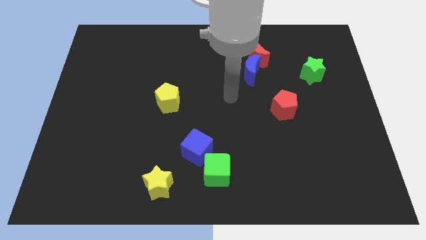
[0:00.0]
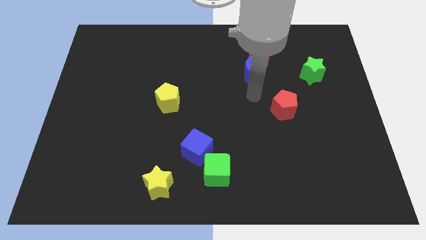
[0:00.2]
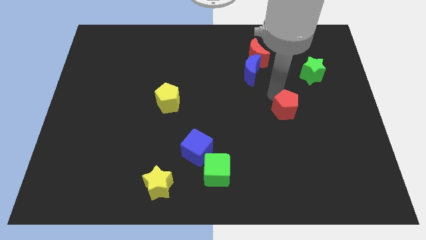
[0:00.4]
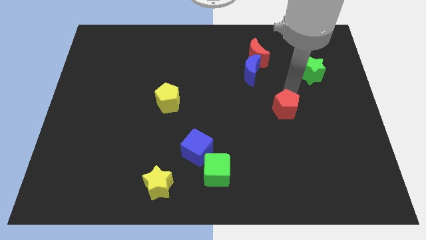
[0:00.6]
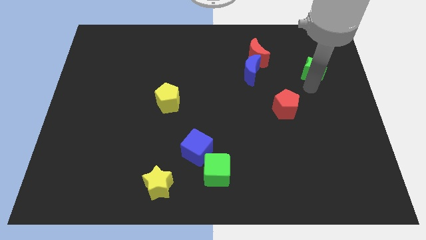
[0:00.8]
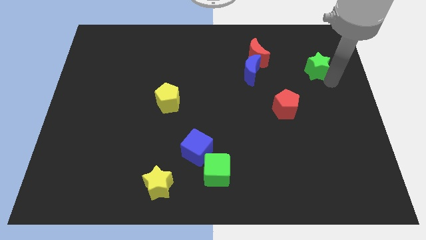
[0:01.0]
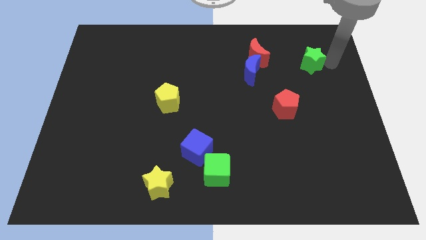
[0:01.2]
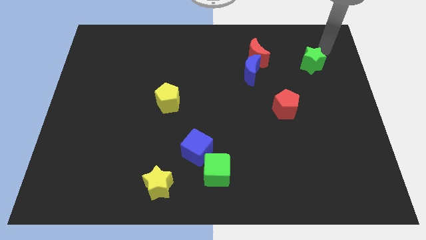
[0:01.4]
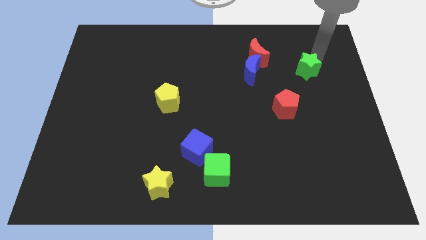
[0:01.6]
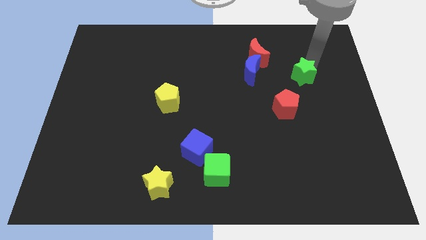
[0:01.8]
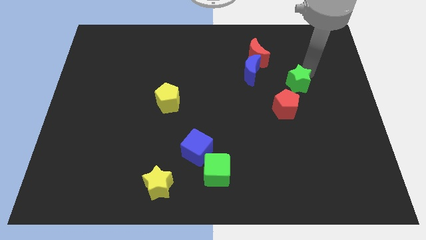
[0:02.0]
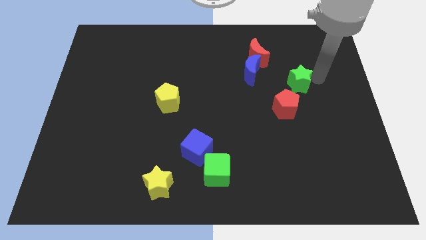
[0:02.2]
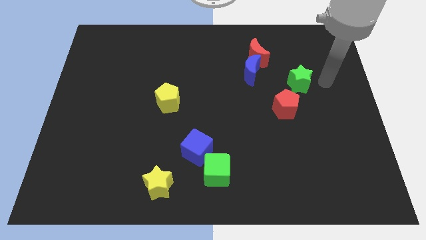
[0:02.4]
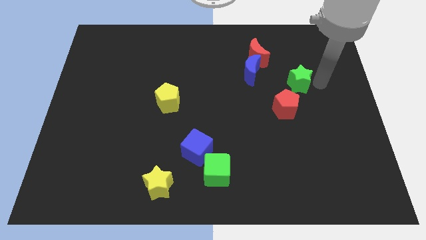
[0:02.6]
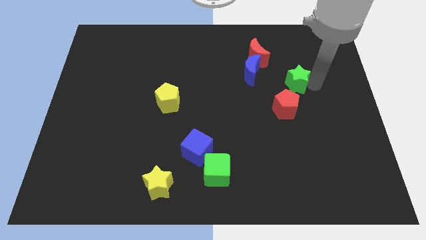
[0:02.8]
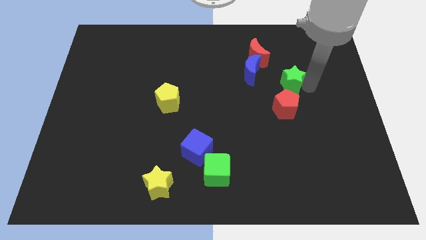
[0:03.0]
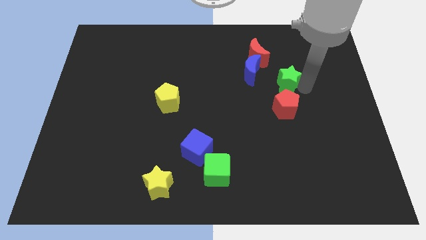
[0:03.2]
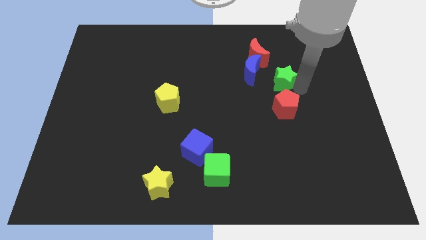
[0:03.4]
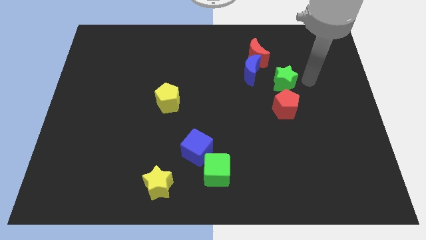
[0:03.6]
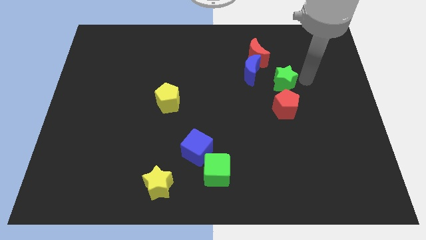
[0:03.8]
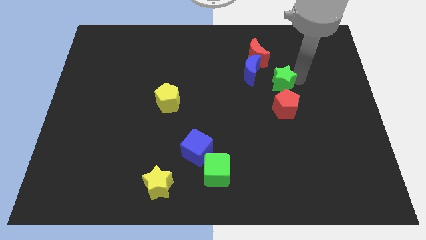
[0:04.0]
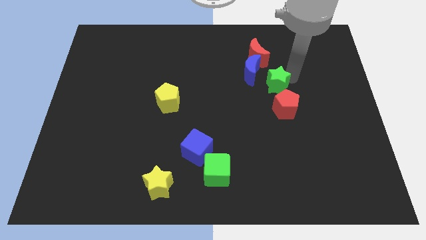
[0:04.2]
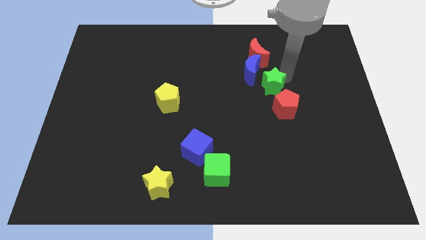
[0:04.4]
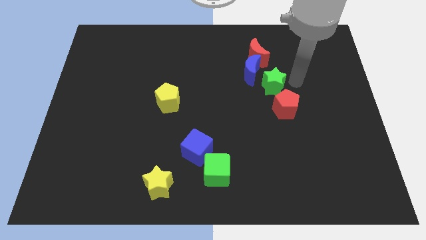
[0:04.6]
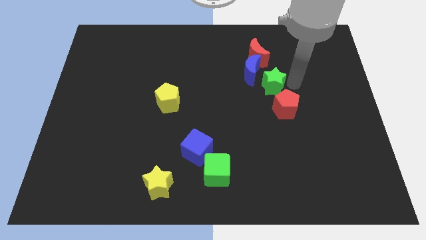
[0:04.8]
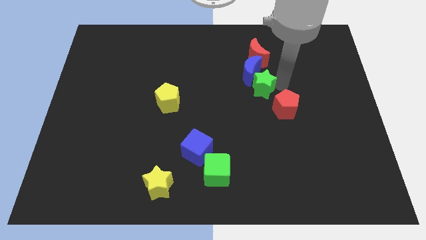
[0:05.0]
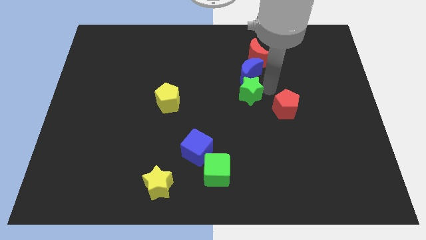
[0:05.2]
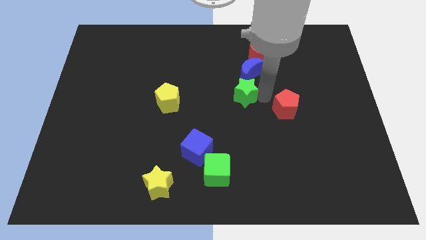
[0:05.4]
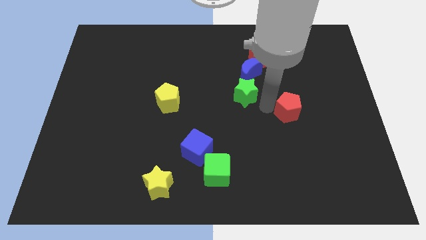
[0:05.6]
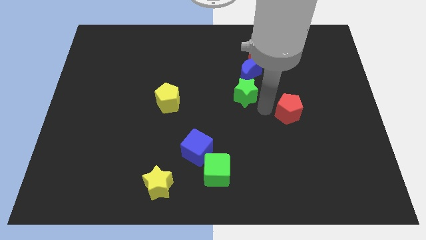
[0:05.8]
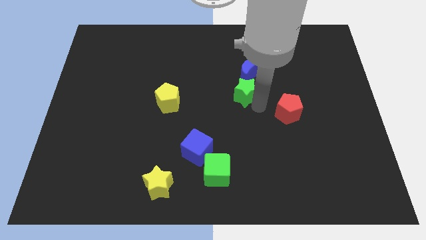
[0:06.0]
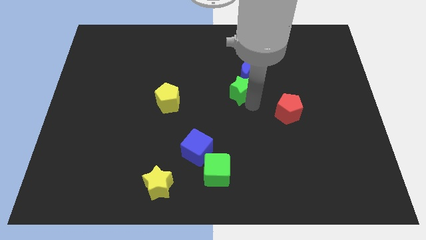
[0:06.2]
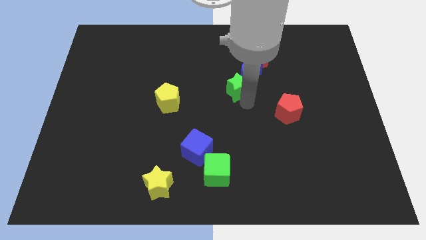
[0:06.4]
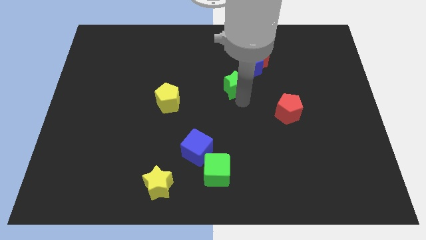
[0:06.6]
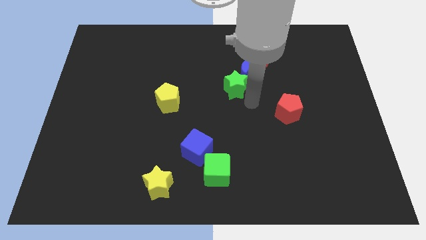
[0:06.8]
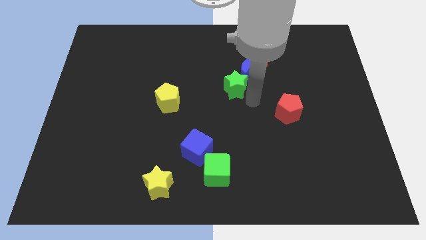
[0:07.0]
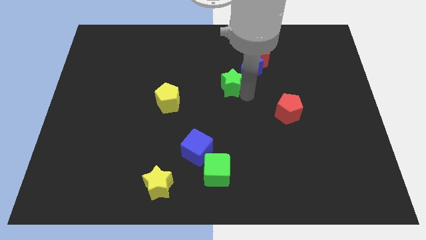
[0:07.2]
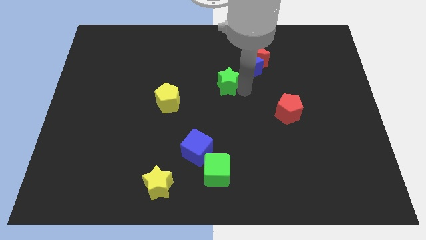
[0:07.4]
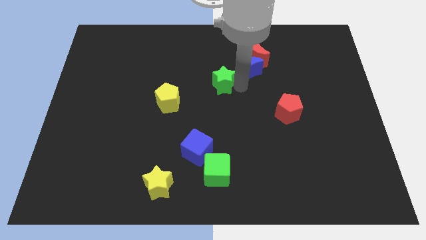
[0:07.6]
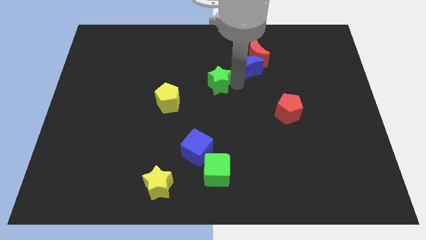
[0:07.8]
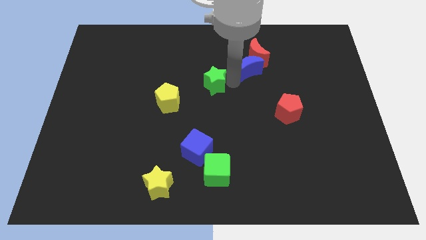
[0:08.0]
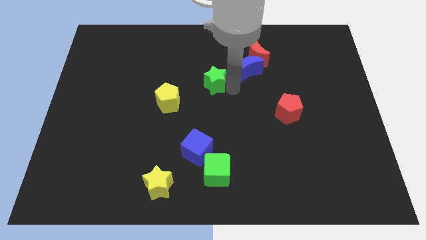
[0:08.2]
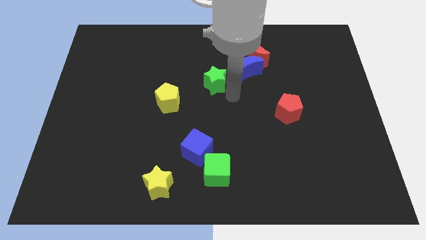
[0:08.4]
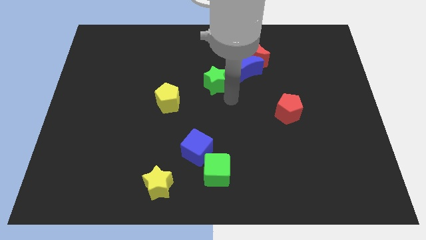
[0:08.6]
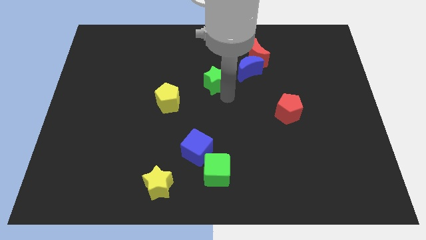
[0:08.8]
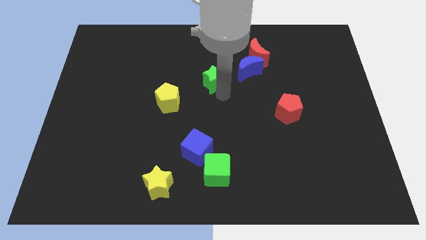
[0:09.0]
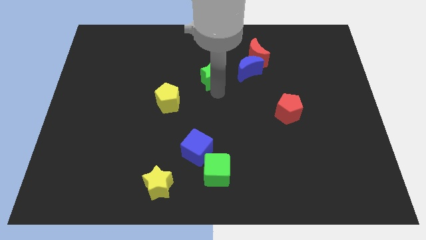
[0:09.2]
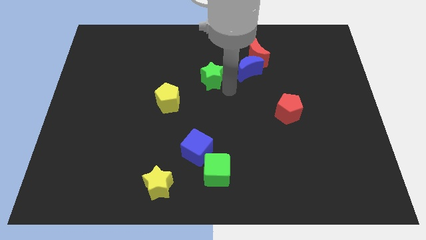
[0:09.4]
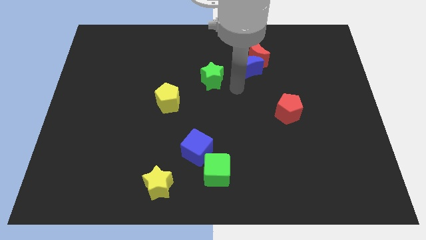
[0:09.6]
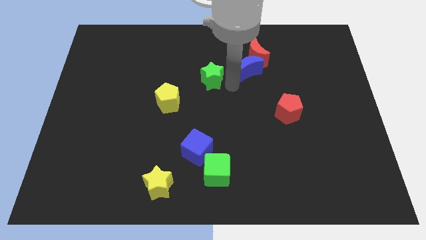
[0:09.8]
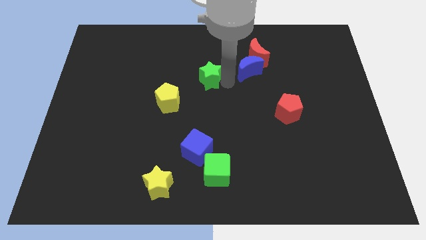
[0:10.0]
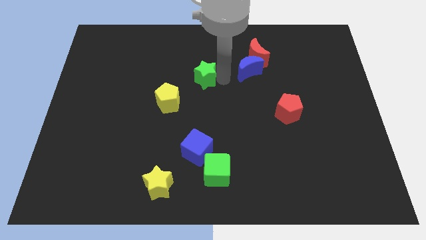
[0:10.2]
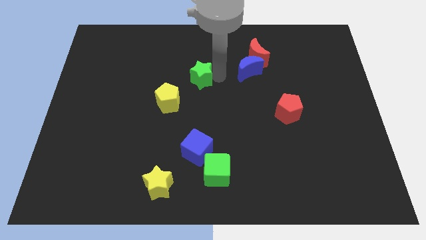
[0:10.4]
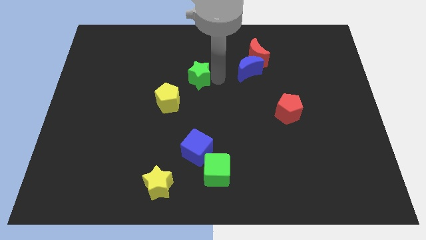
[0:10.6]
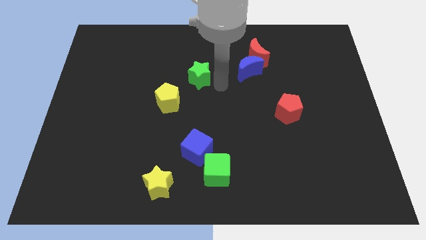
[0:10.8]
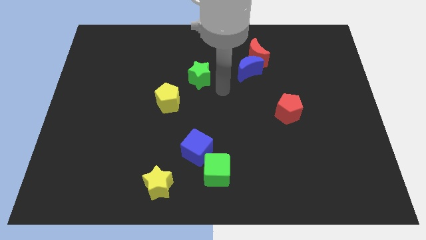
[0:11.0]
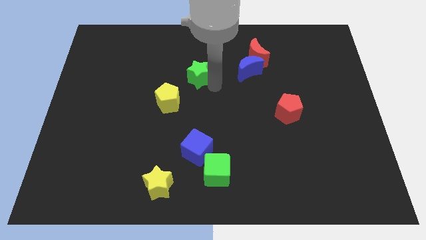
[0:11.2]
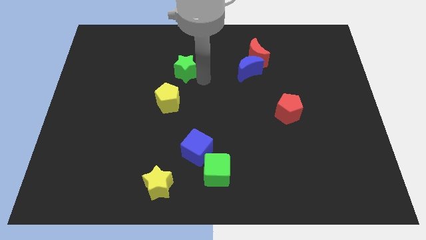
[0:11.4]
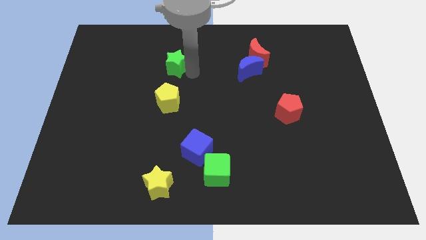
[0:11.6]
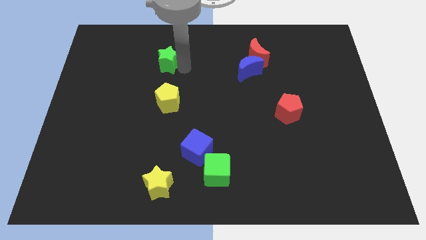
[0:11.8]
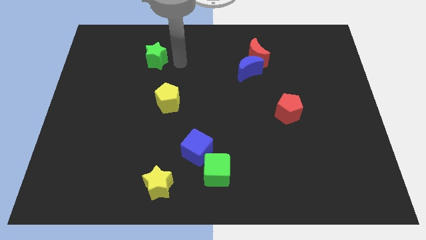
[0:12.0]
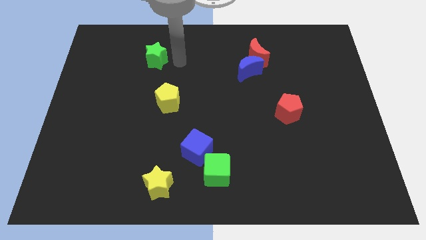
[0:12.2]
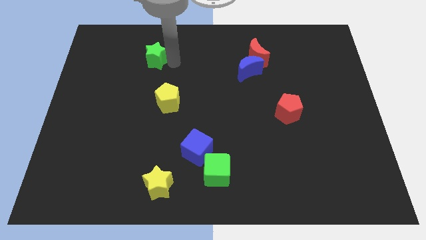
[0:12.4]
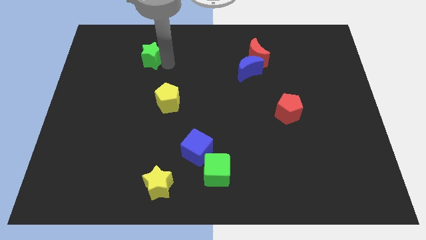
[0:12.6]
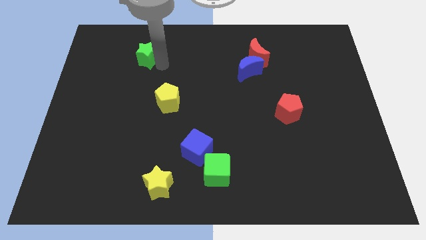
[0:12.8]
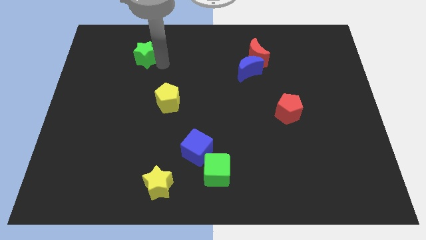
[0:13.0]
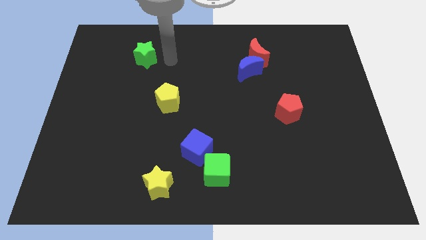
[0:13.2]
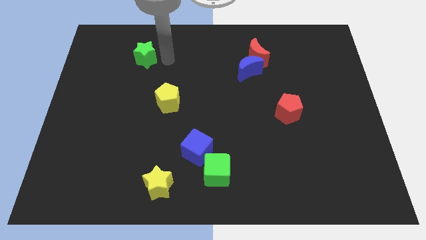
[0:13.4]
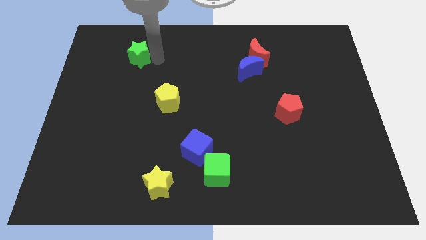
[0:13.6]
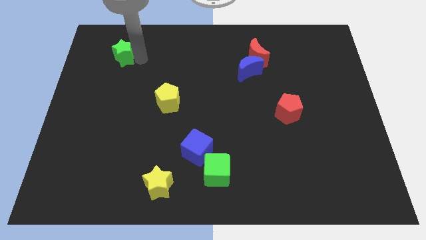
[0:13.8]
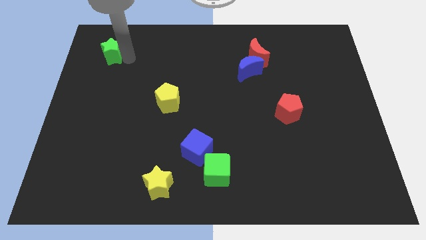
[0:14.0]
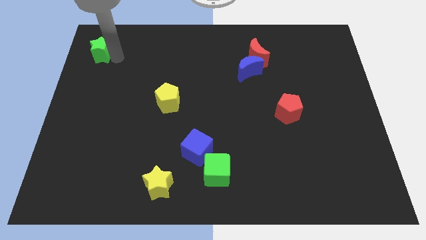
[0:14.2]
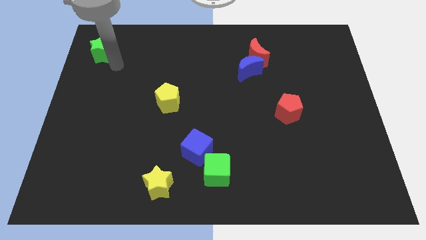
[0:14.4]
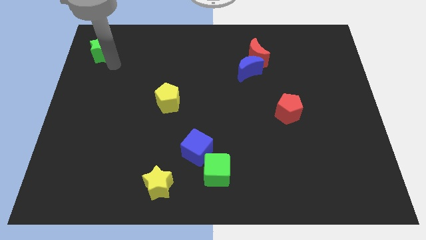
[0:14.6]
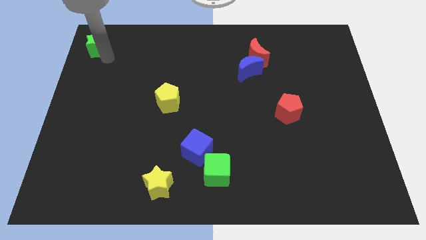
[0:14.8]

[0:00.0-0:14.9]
slide the green star to the top left
